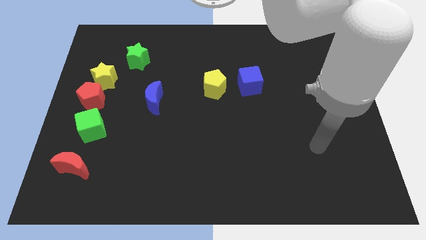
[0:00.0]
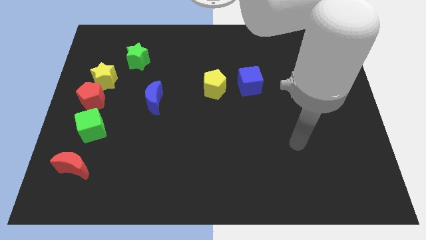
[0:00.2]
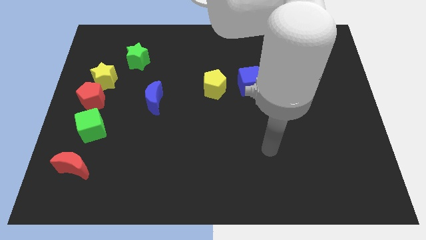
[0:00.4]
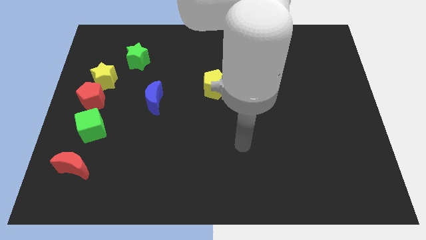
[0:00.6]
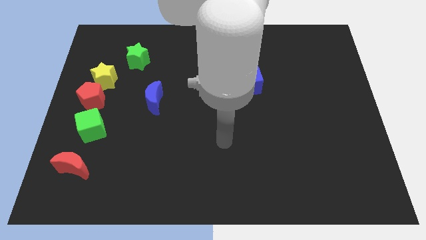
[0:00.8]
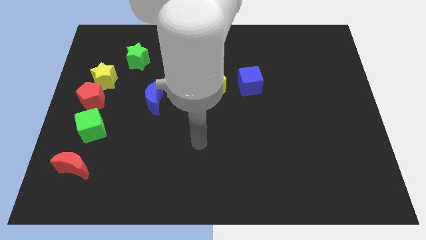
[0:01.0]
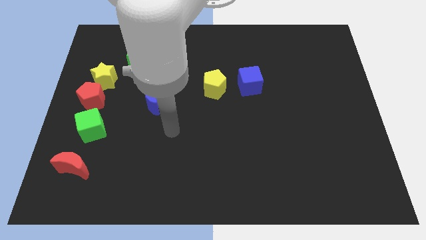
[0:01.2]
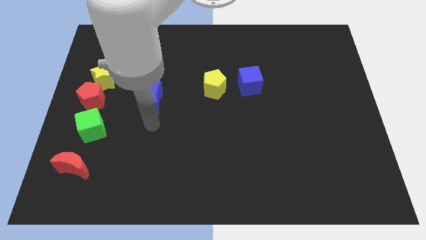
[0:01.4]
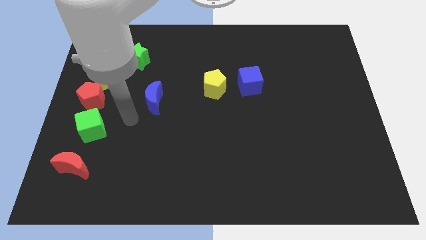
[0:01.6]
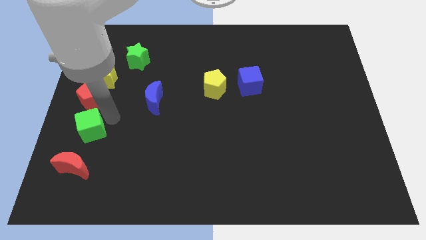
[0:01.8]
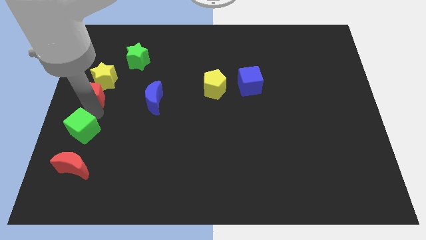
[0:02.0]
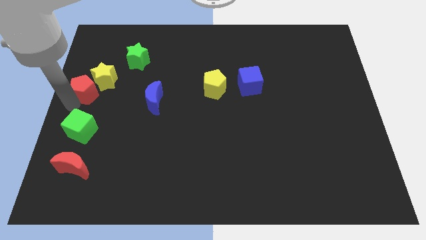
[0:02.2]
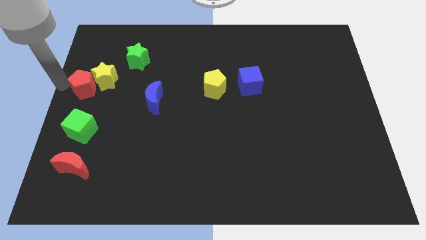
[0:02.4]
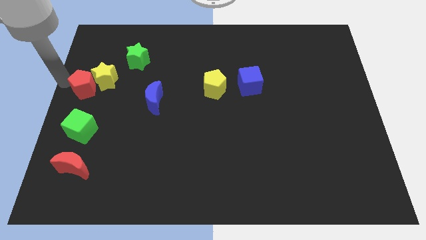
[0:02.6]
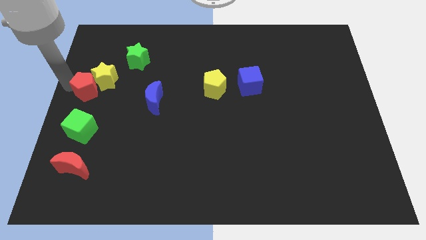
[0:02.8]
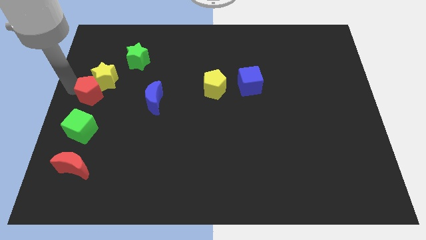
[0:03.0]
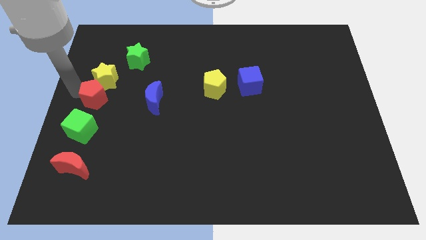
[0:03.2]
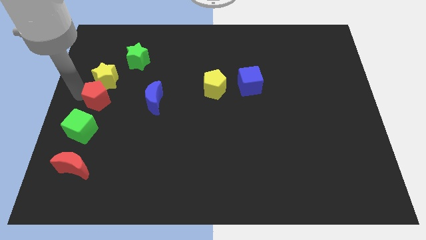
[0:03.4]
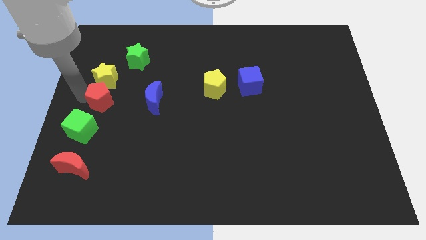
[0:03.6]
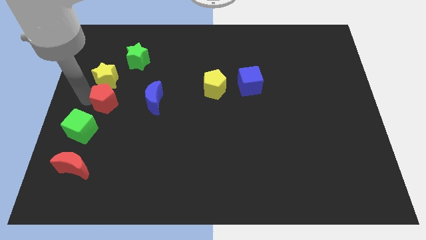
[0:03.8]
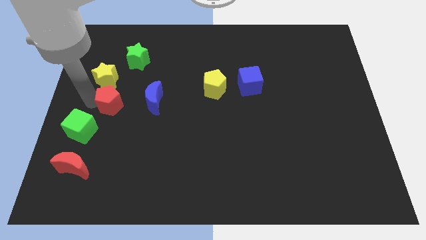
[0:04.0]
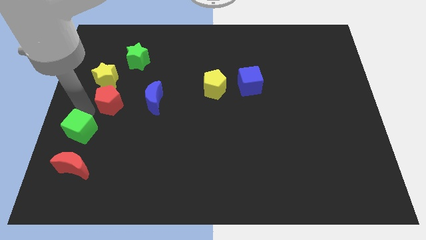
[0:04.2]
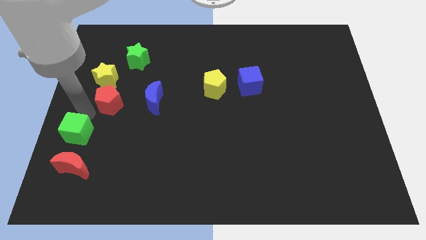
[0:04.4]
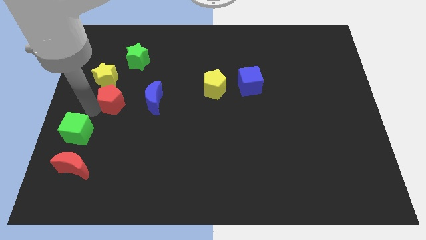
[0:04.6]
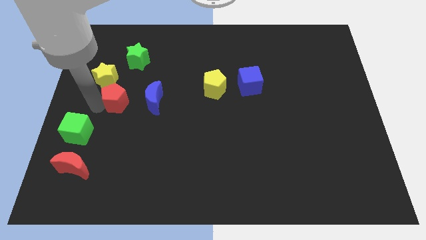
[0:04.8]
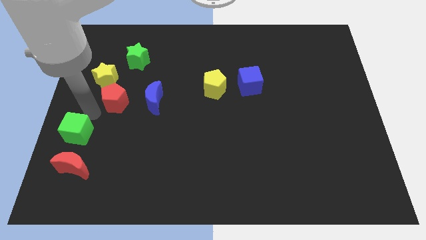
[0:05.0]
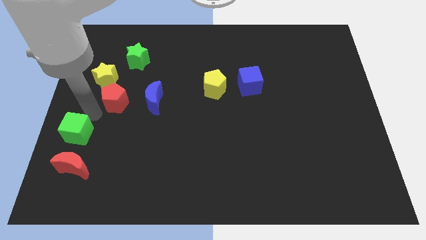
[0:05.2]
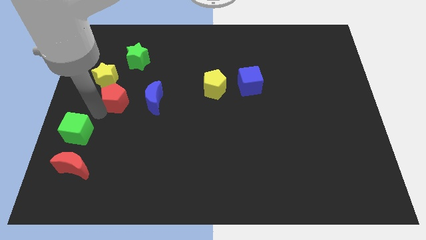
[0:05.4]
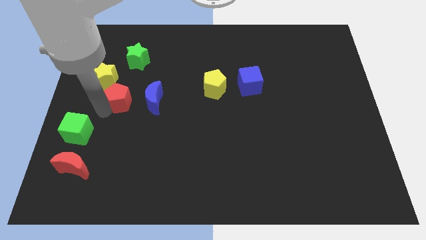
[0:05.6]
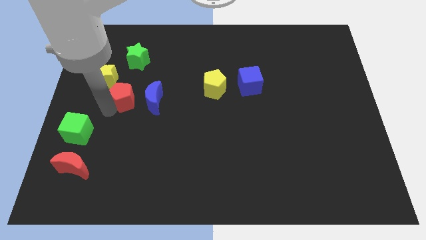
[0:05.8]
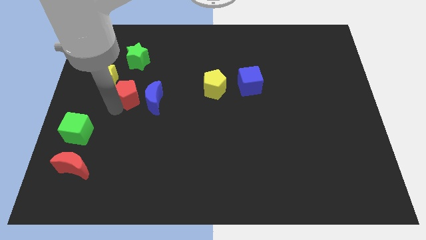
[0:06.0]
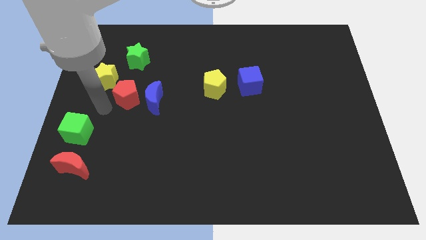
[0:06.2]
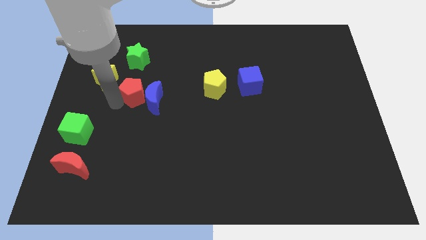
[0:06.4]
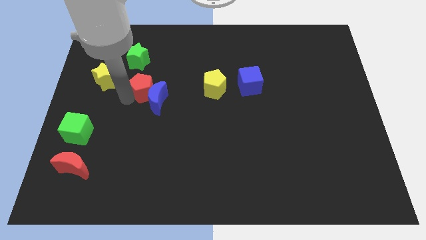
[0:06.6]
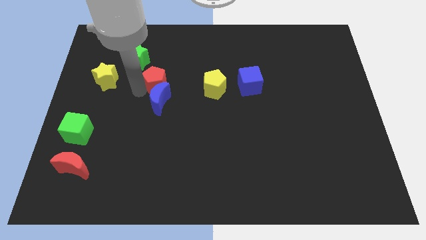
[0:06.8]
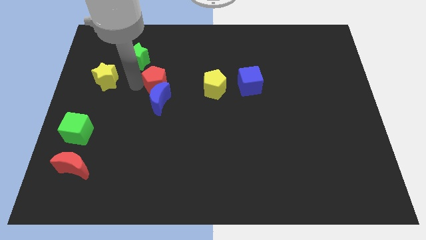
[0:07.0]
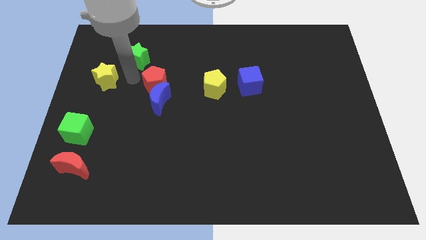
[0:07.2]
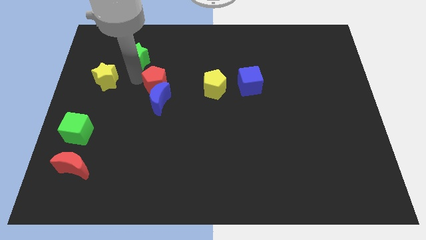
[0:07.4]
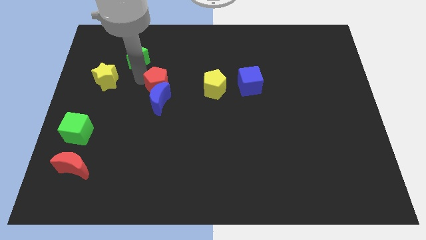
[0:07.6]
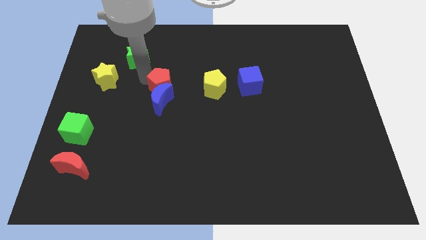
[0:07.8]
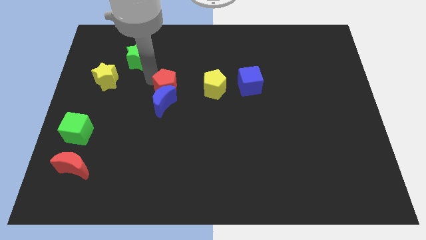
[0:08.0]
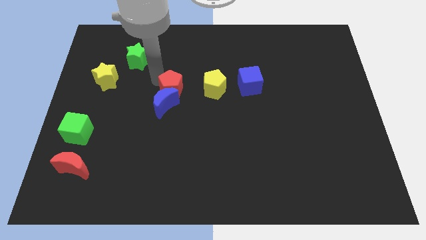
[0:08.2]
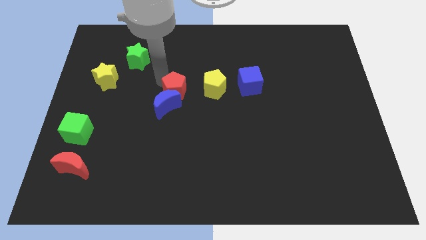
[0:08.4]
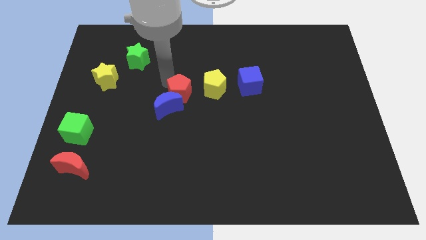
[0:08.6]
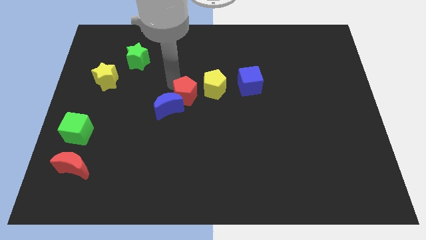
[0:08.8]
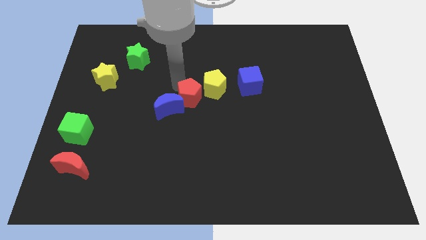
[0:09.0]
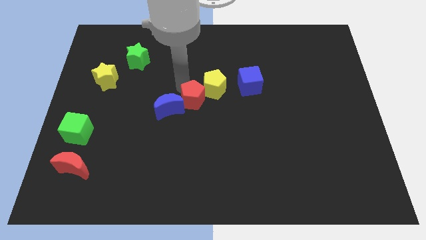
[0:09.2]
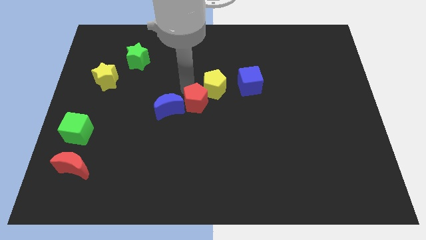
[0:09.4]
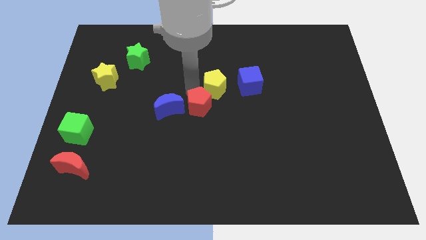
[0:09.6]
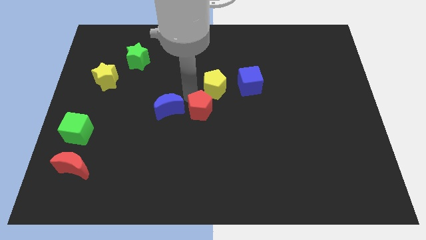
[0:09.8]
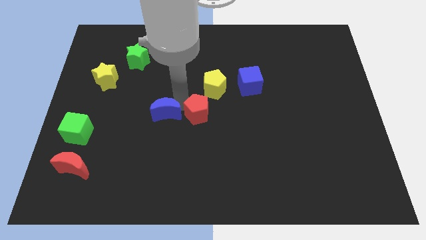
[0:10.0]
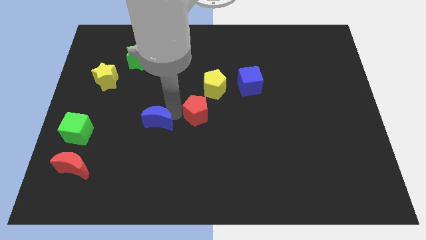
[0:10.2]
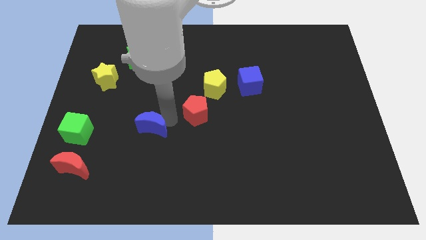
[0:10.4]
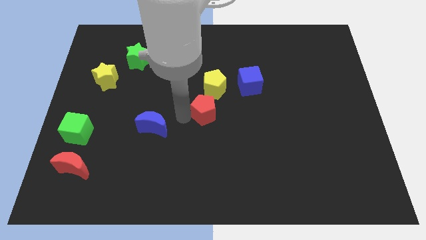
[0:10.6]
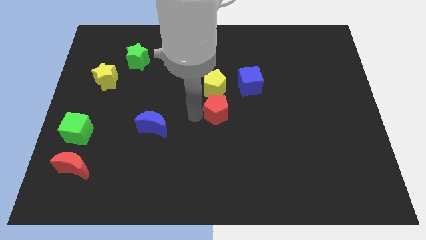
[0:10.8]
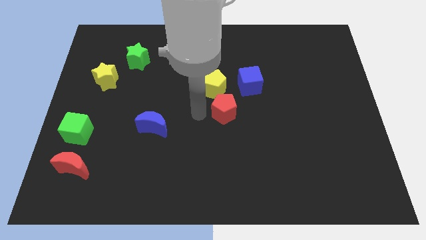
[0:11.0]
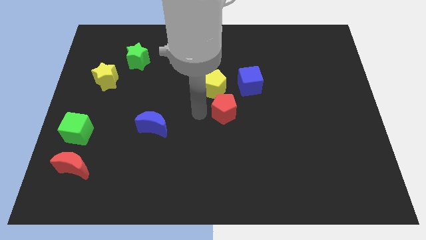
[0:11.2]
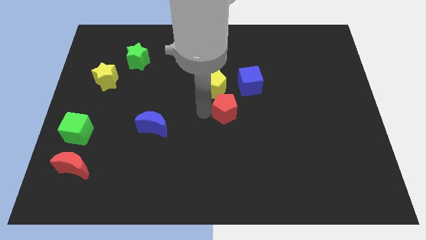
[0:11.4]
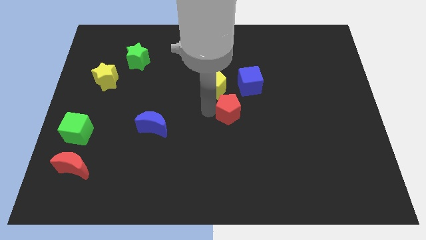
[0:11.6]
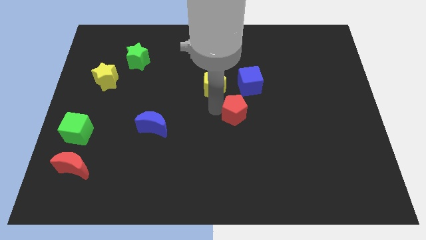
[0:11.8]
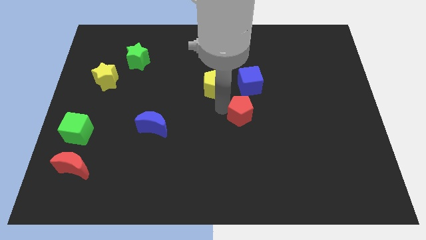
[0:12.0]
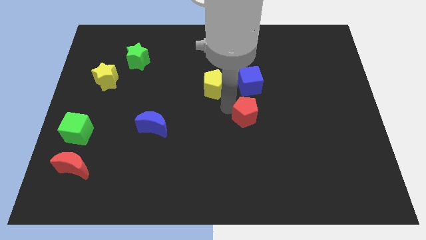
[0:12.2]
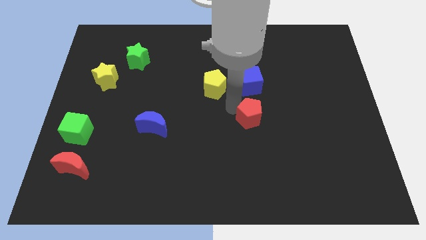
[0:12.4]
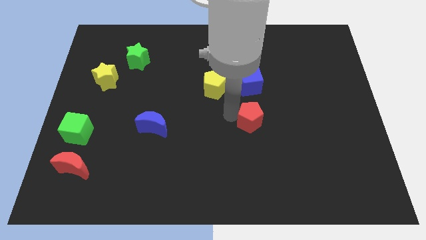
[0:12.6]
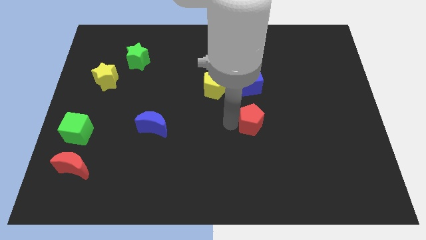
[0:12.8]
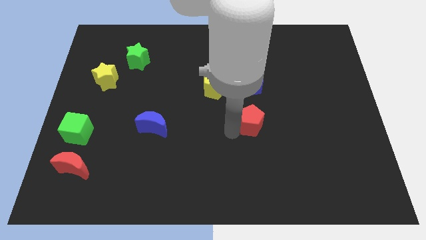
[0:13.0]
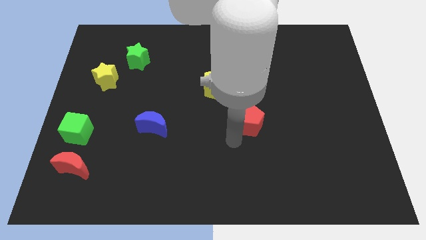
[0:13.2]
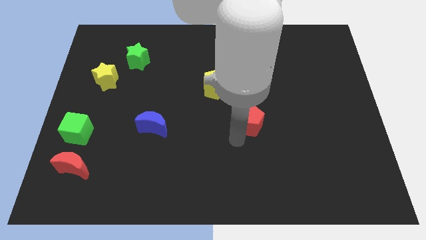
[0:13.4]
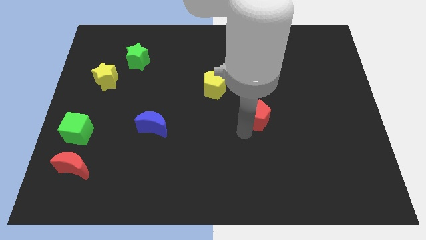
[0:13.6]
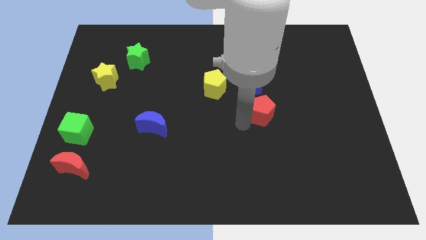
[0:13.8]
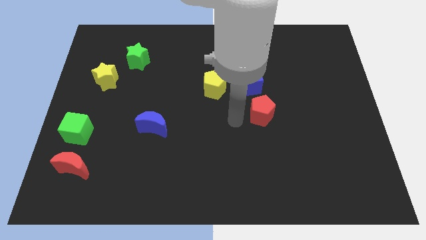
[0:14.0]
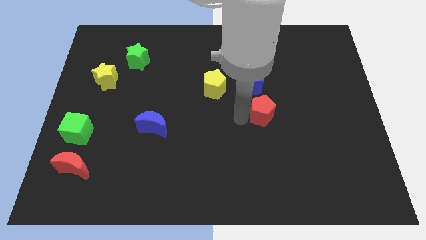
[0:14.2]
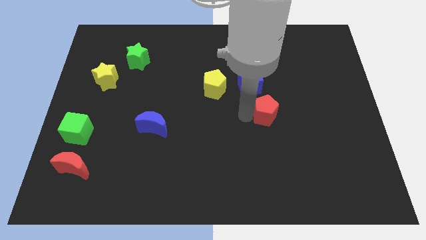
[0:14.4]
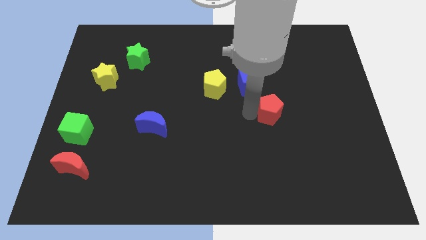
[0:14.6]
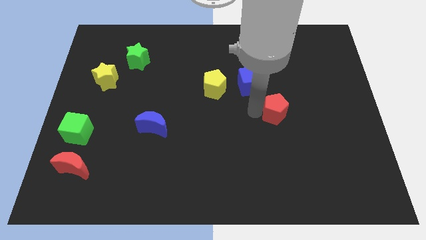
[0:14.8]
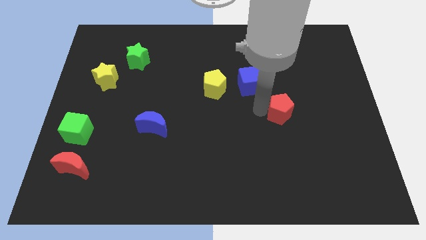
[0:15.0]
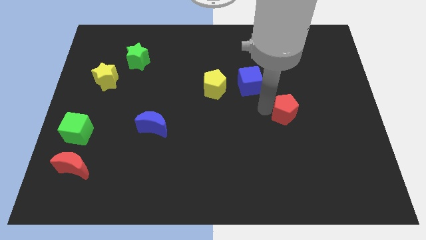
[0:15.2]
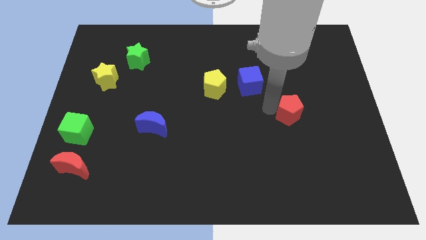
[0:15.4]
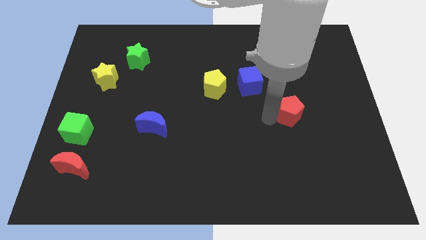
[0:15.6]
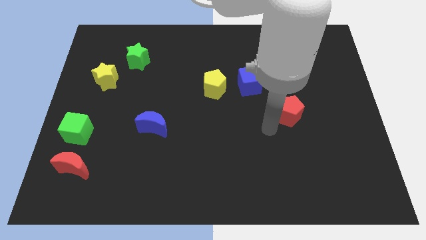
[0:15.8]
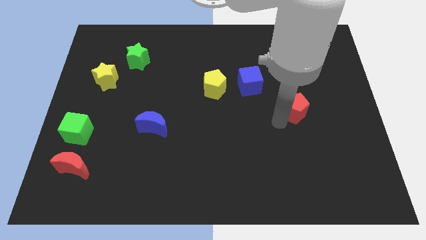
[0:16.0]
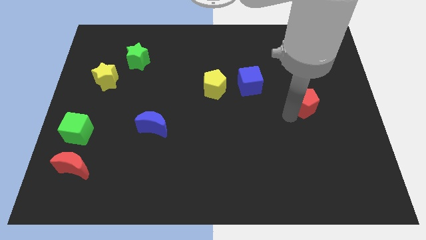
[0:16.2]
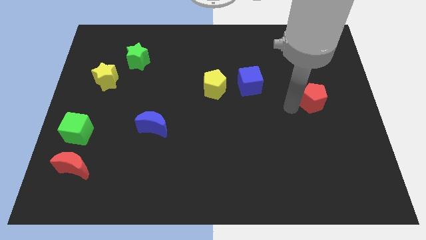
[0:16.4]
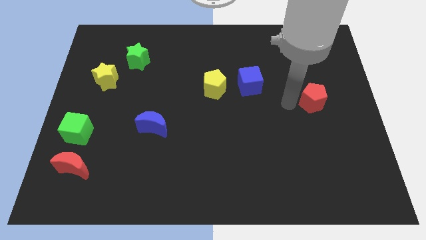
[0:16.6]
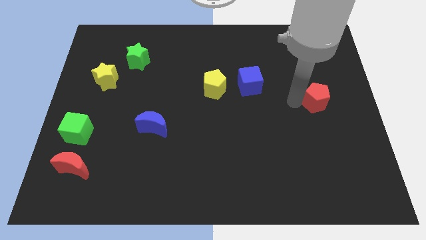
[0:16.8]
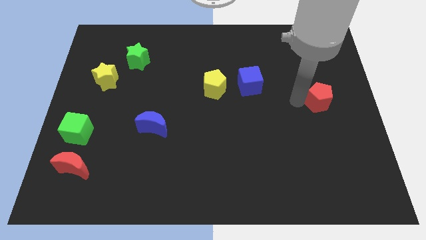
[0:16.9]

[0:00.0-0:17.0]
put the red pentagon to the center right
